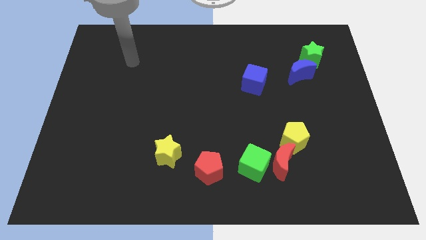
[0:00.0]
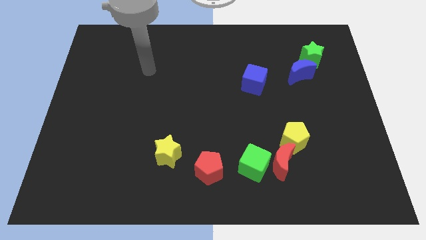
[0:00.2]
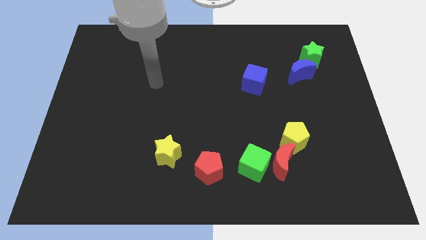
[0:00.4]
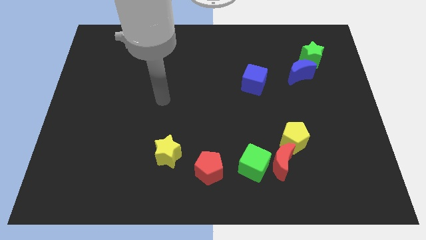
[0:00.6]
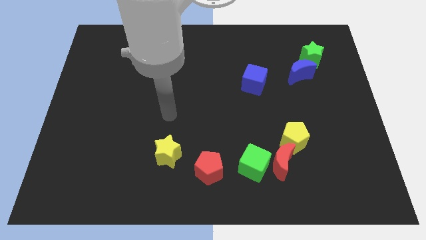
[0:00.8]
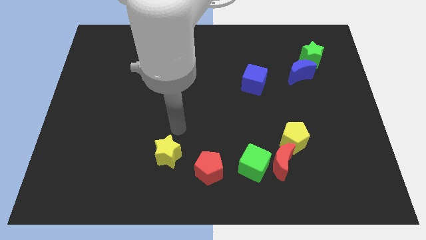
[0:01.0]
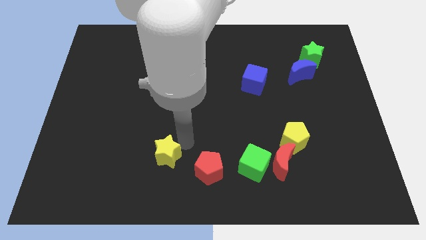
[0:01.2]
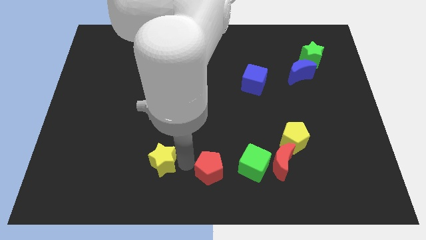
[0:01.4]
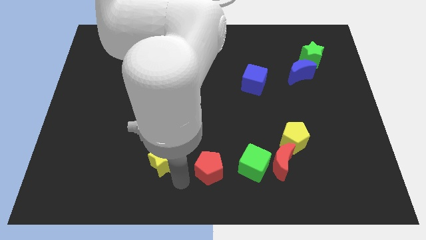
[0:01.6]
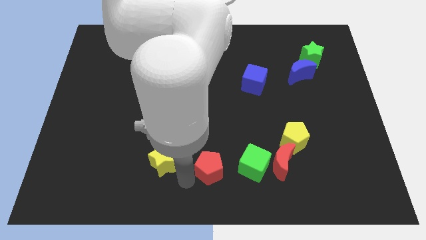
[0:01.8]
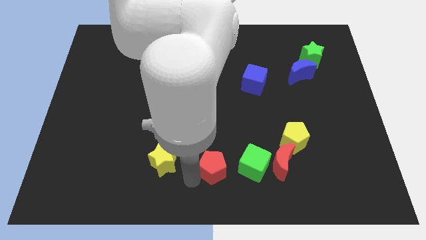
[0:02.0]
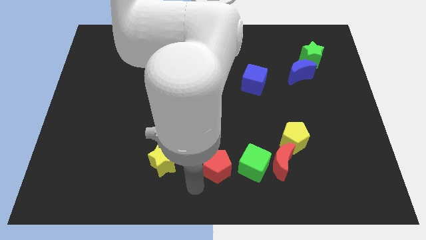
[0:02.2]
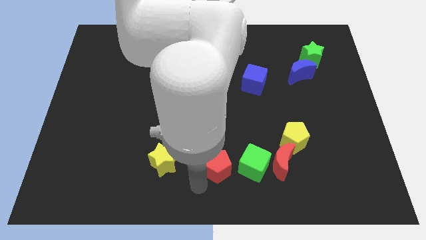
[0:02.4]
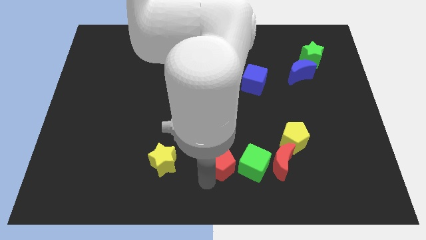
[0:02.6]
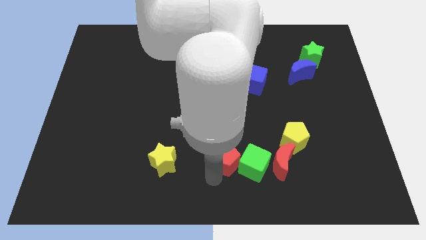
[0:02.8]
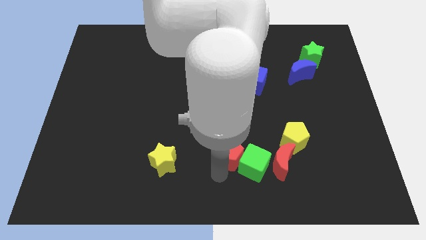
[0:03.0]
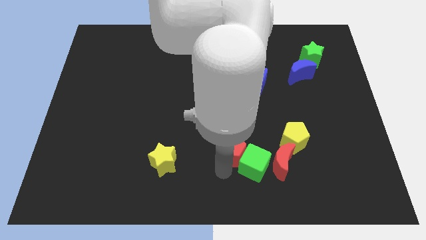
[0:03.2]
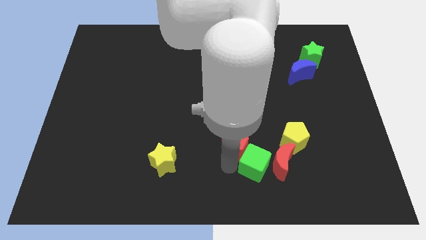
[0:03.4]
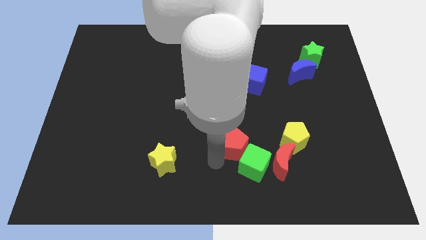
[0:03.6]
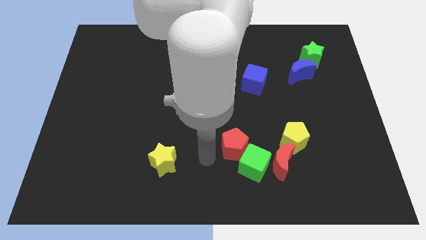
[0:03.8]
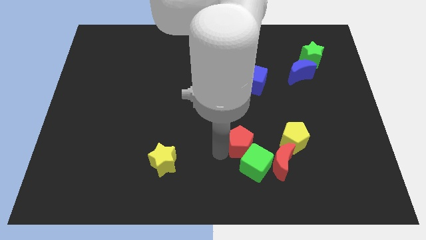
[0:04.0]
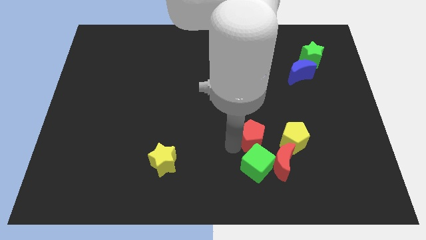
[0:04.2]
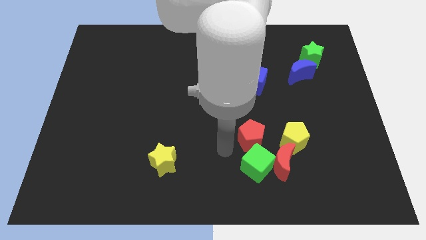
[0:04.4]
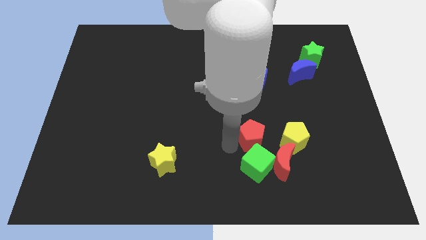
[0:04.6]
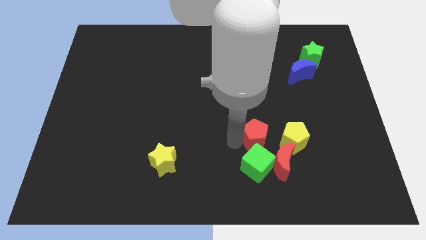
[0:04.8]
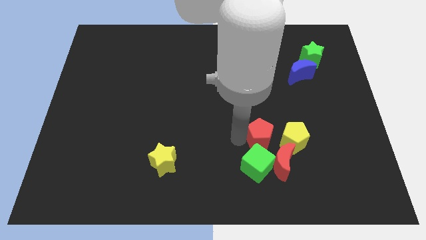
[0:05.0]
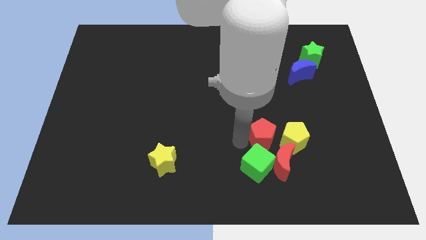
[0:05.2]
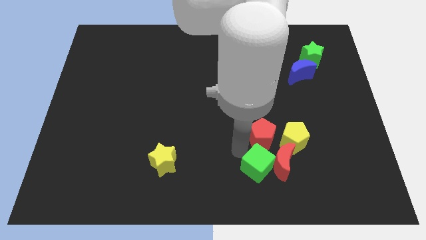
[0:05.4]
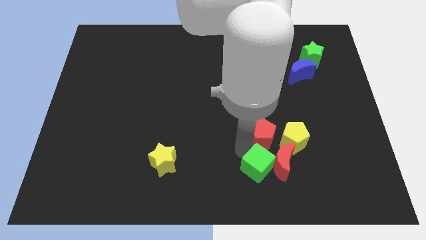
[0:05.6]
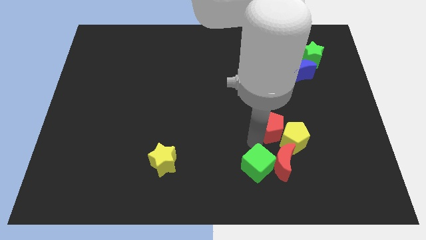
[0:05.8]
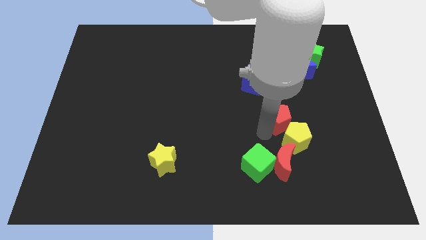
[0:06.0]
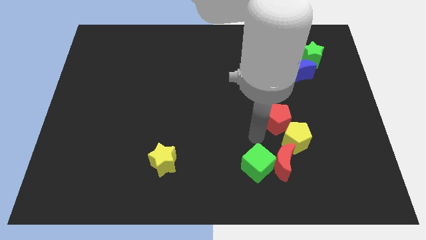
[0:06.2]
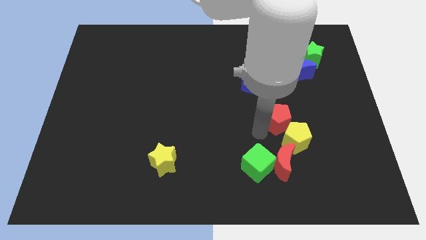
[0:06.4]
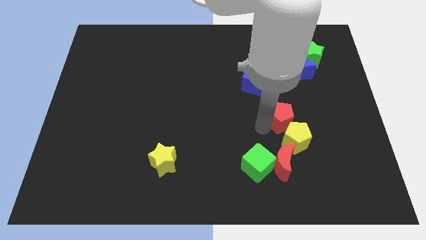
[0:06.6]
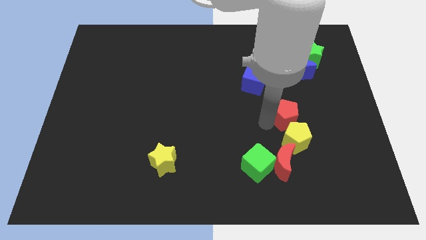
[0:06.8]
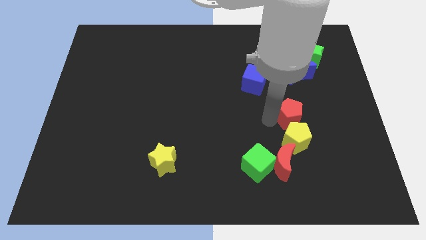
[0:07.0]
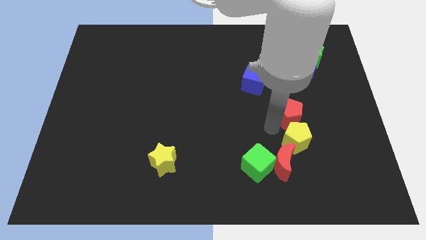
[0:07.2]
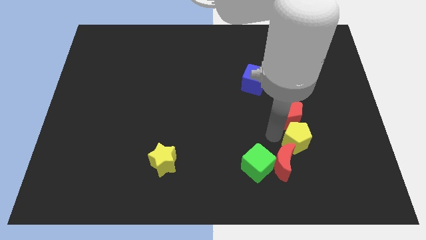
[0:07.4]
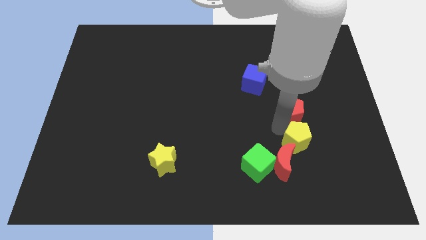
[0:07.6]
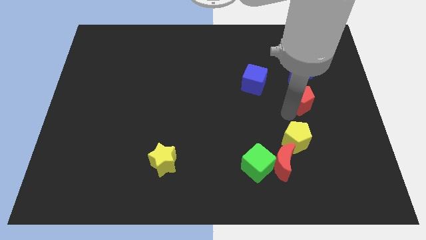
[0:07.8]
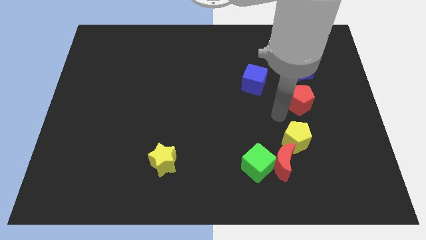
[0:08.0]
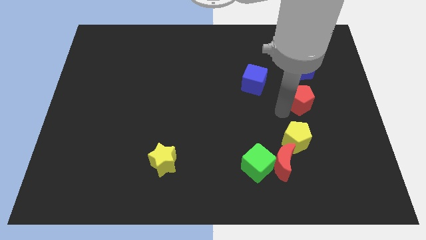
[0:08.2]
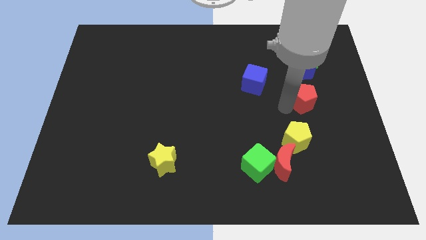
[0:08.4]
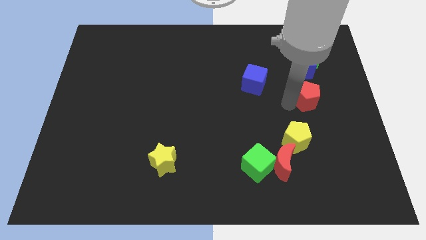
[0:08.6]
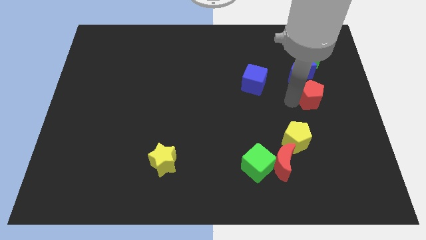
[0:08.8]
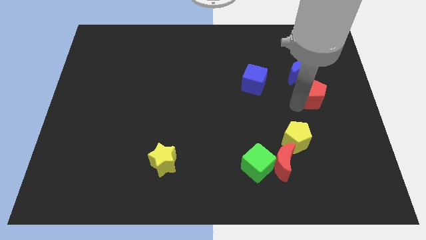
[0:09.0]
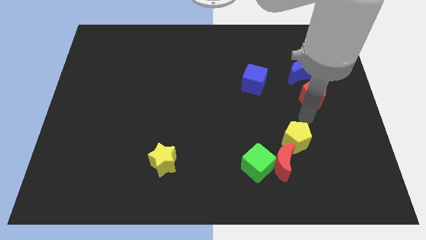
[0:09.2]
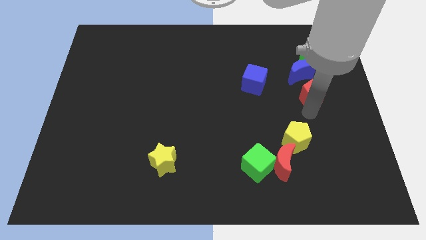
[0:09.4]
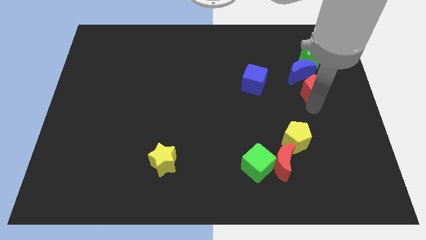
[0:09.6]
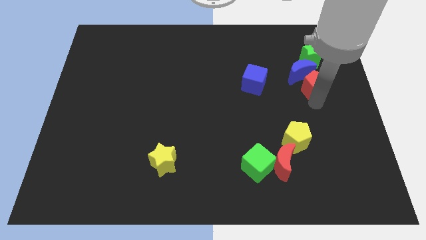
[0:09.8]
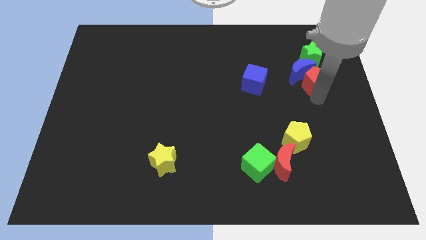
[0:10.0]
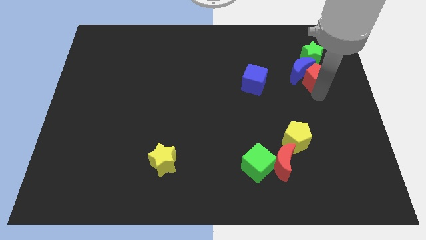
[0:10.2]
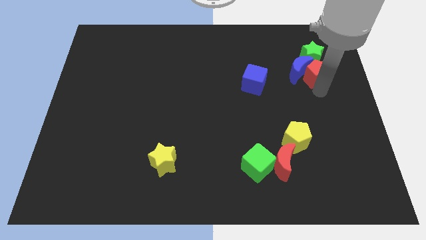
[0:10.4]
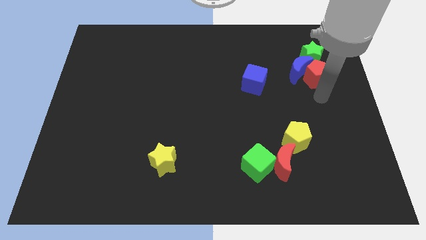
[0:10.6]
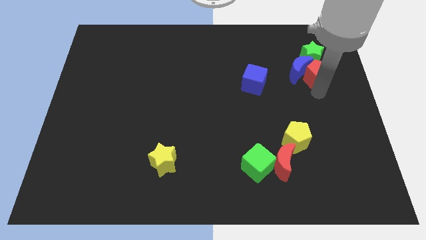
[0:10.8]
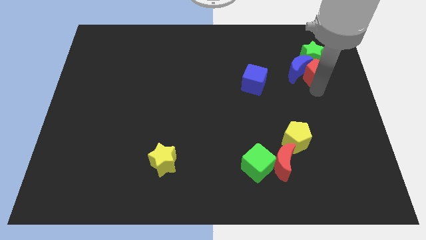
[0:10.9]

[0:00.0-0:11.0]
slide the red pentagon close to the green star

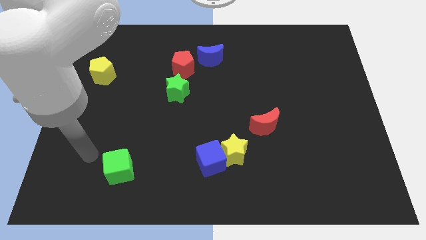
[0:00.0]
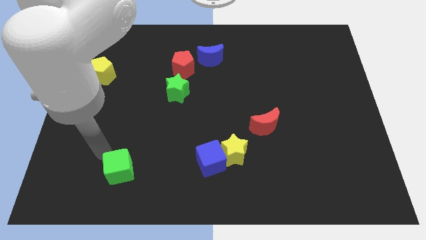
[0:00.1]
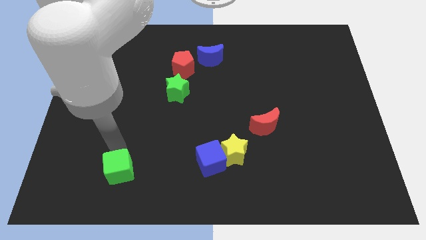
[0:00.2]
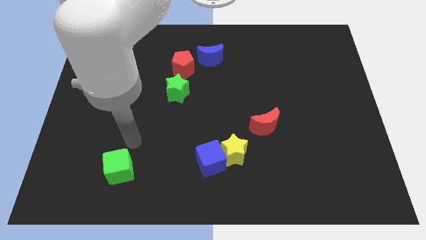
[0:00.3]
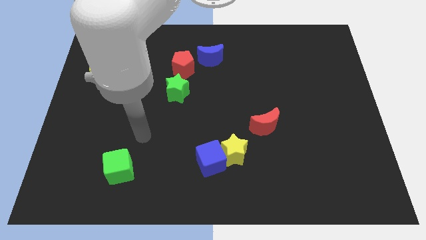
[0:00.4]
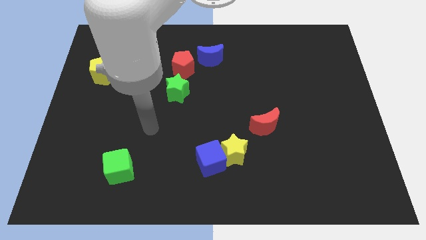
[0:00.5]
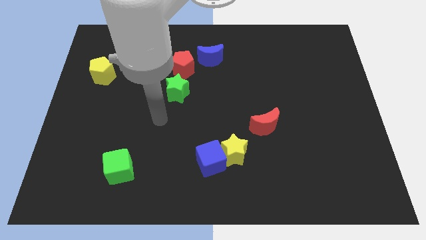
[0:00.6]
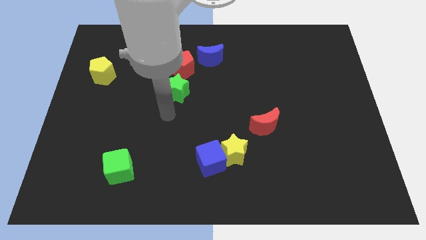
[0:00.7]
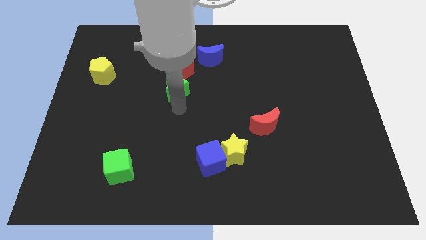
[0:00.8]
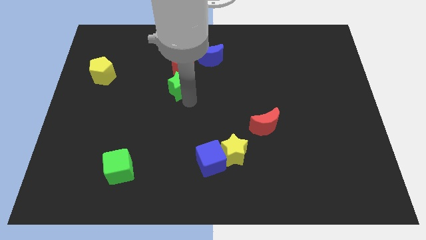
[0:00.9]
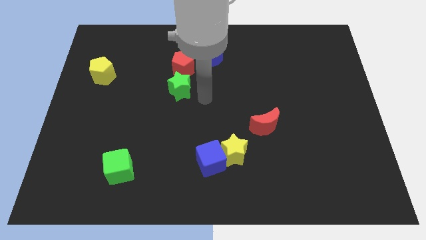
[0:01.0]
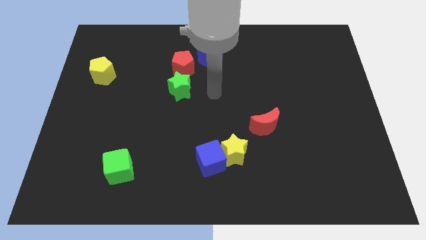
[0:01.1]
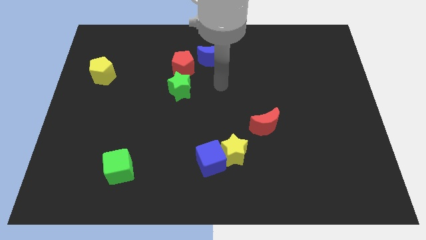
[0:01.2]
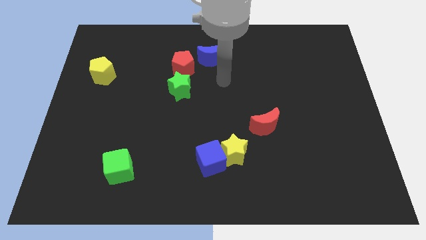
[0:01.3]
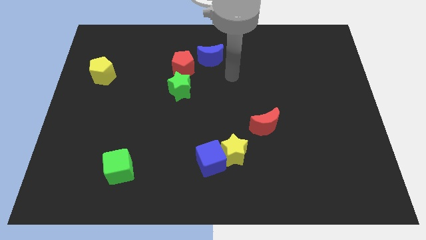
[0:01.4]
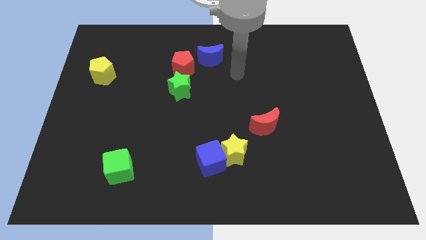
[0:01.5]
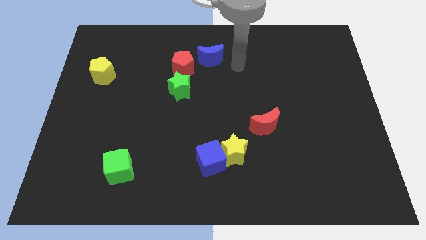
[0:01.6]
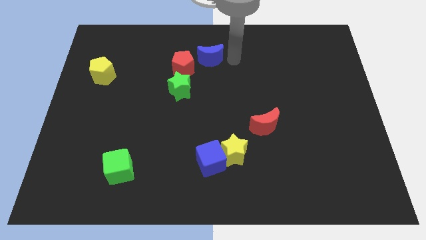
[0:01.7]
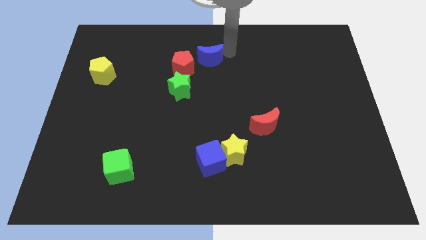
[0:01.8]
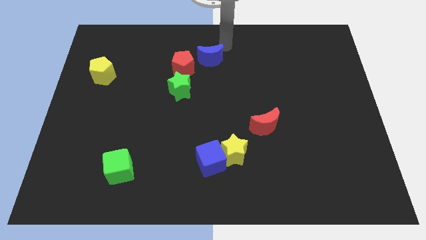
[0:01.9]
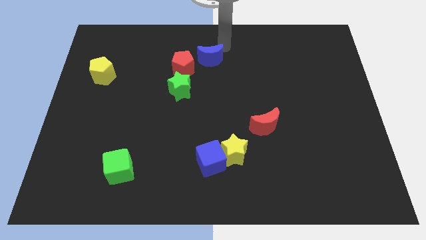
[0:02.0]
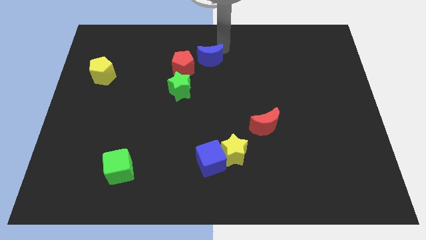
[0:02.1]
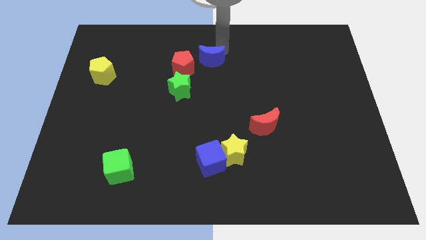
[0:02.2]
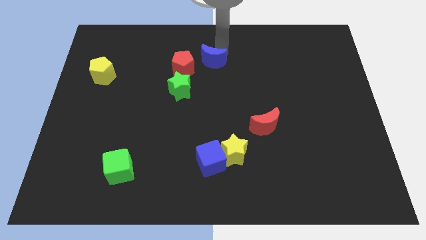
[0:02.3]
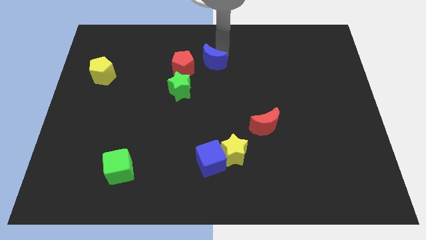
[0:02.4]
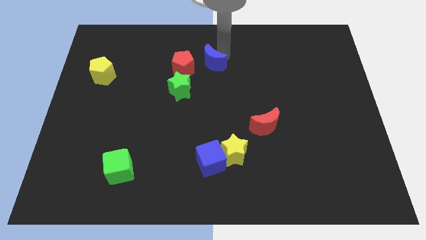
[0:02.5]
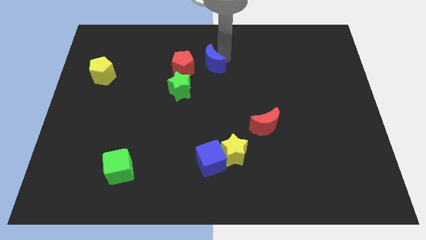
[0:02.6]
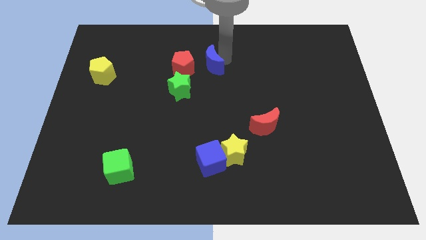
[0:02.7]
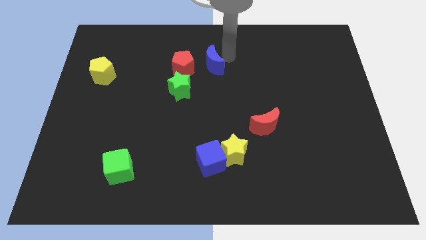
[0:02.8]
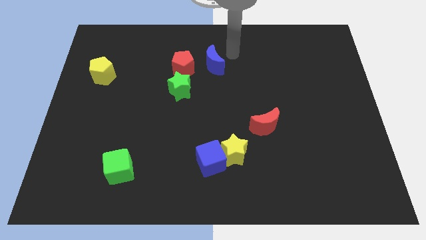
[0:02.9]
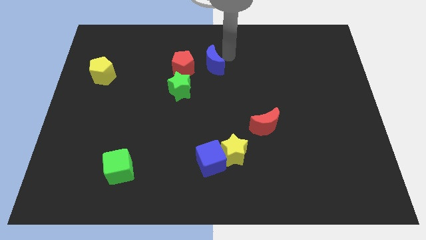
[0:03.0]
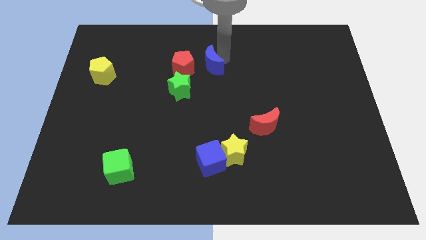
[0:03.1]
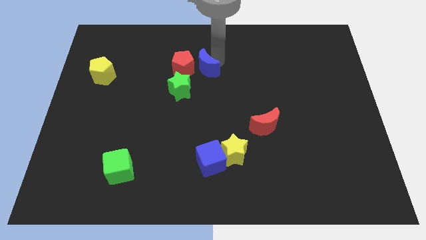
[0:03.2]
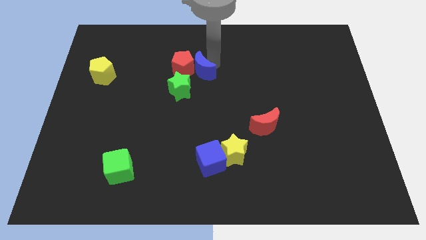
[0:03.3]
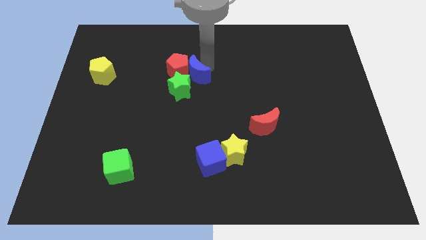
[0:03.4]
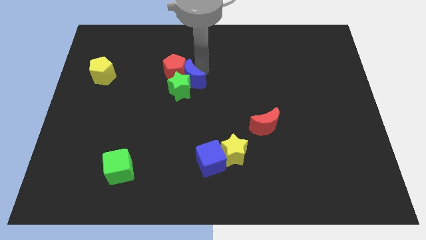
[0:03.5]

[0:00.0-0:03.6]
push the blue moon next to the green star
